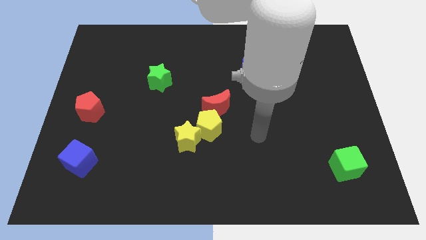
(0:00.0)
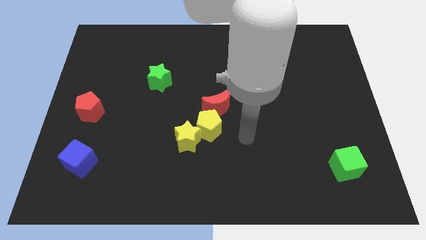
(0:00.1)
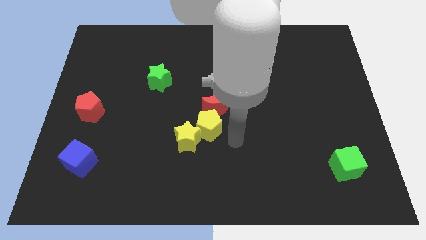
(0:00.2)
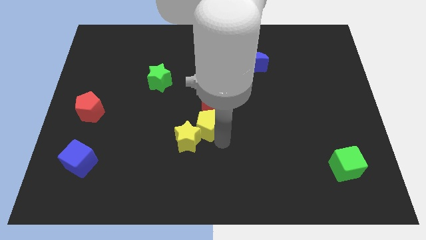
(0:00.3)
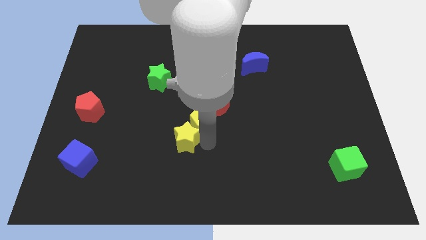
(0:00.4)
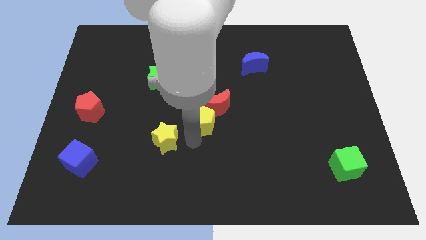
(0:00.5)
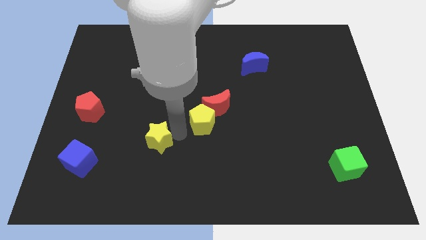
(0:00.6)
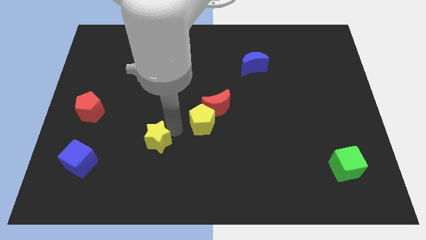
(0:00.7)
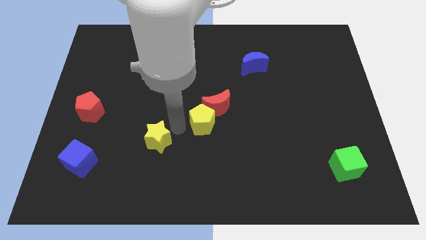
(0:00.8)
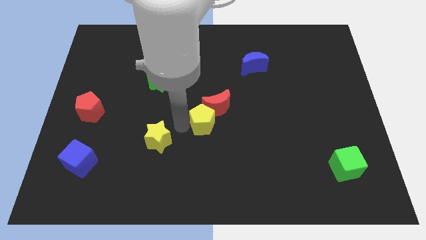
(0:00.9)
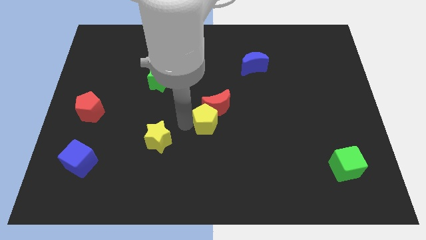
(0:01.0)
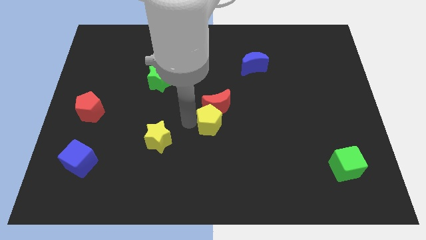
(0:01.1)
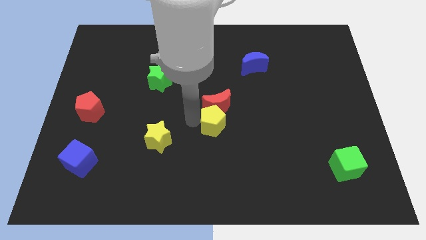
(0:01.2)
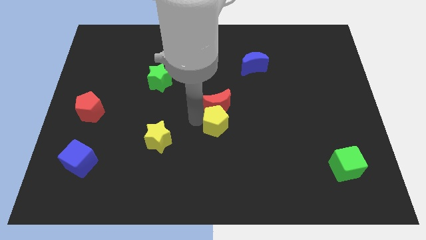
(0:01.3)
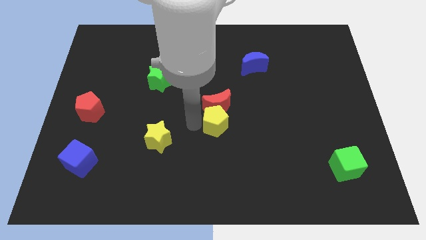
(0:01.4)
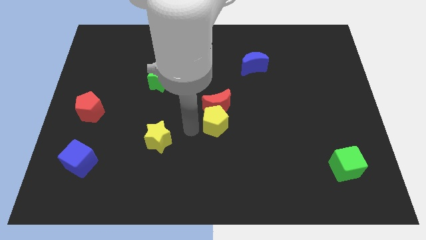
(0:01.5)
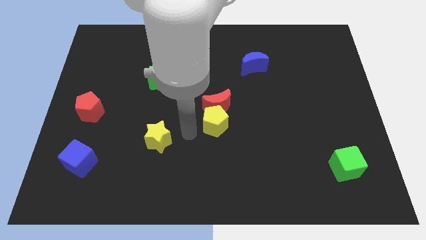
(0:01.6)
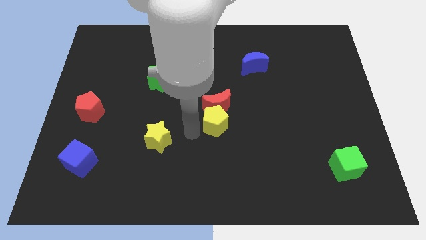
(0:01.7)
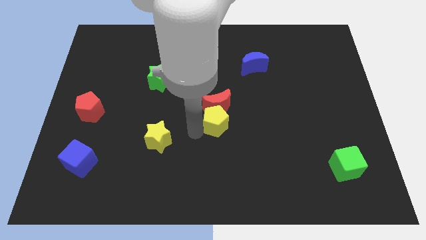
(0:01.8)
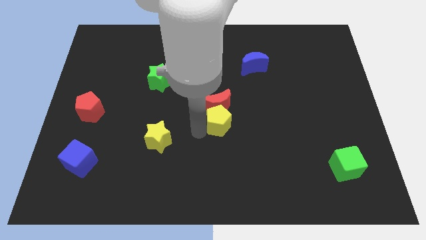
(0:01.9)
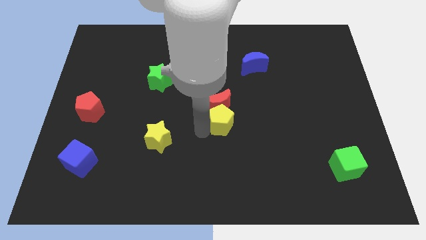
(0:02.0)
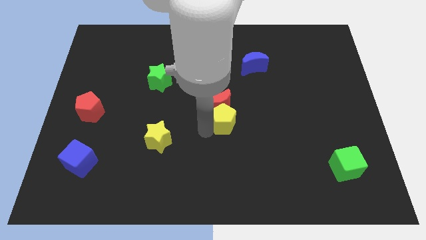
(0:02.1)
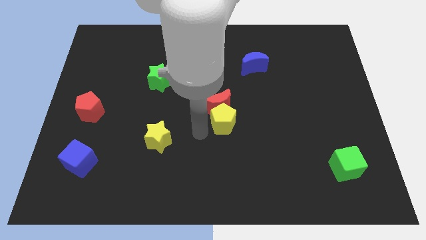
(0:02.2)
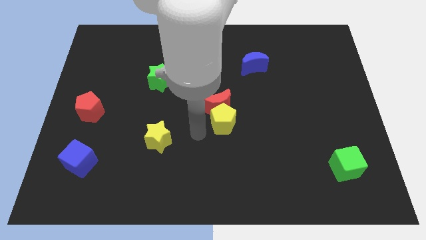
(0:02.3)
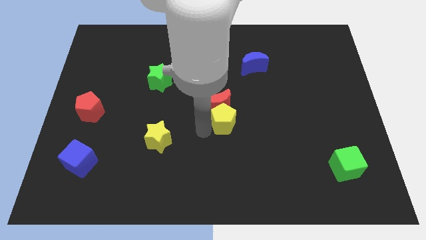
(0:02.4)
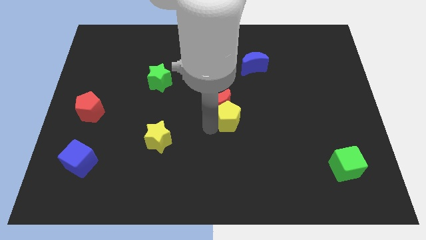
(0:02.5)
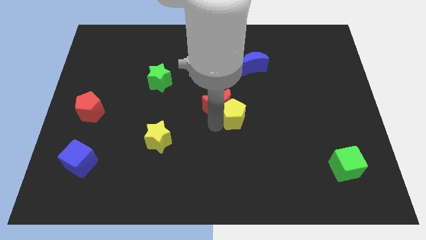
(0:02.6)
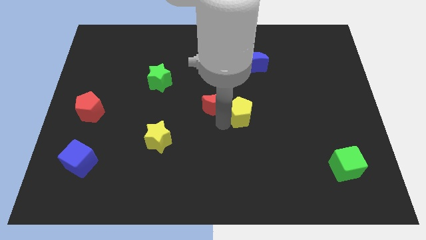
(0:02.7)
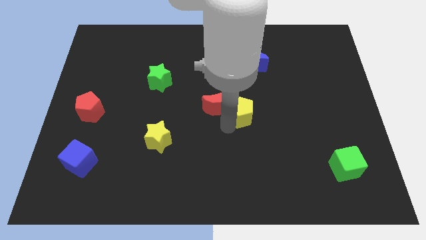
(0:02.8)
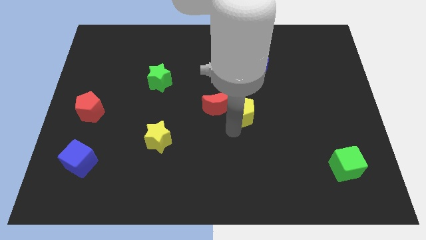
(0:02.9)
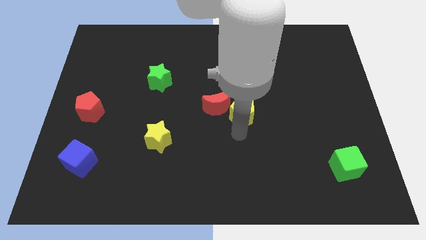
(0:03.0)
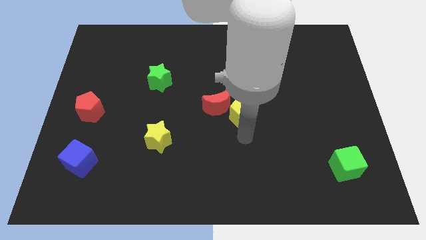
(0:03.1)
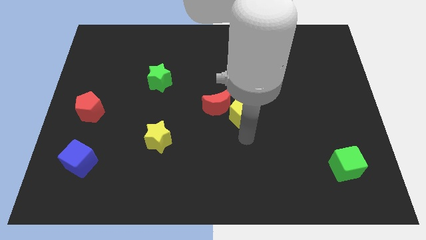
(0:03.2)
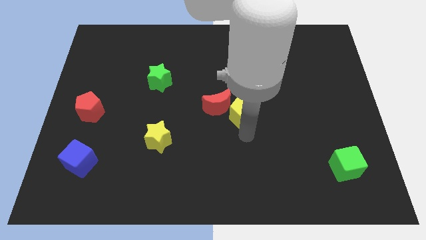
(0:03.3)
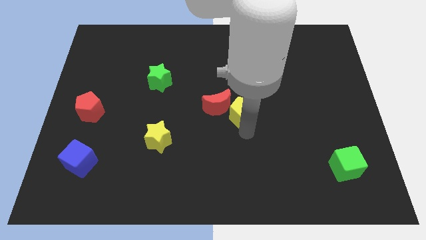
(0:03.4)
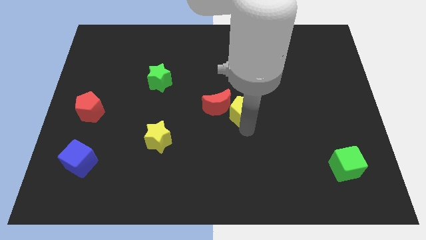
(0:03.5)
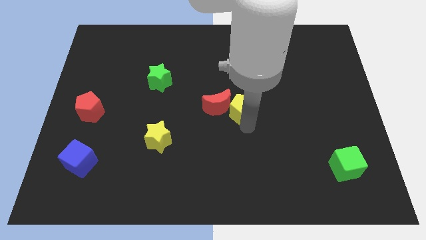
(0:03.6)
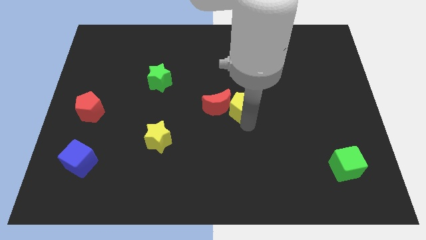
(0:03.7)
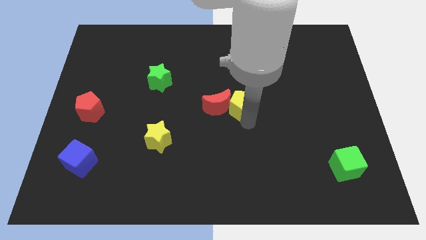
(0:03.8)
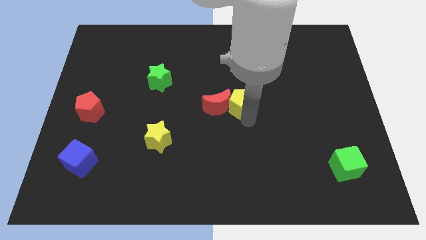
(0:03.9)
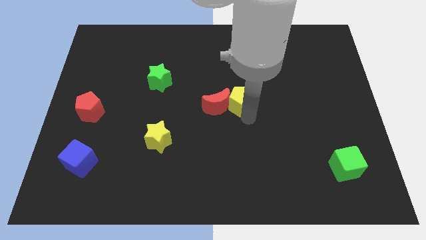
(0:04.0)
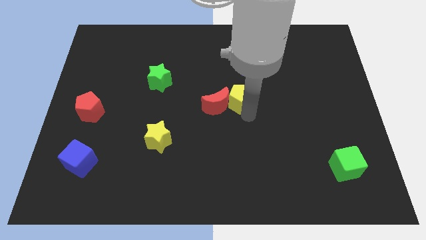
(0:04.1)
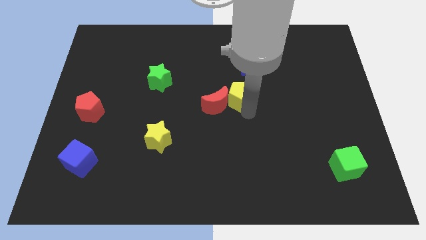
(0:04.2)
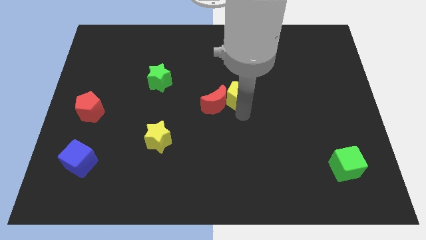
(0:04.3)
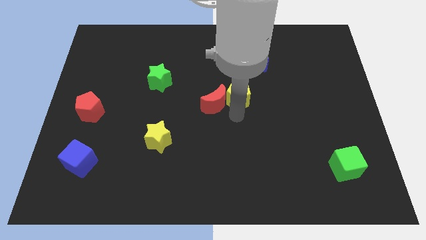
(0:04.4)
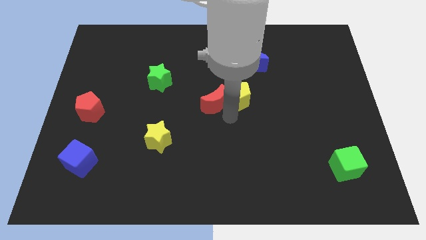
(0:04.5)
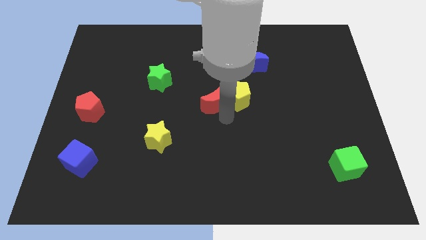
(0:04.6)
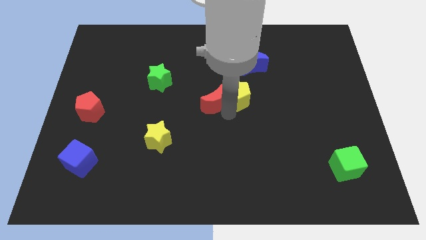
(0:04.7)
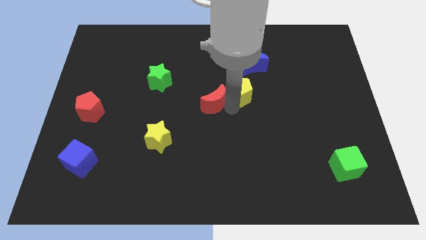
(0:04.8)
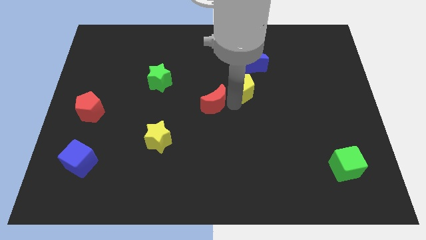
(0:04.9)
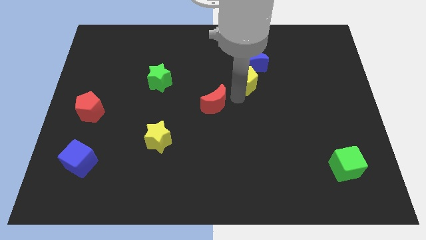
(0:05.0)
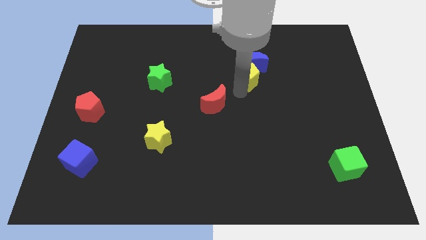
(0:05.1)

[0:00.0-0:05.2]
slide the yellow pentagon to the blue moon

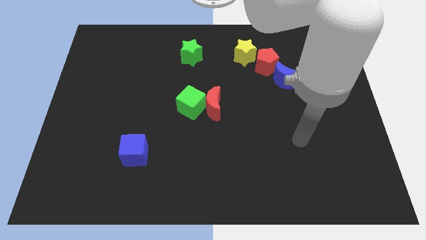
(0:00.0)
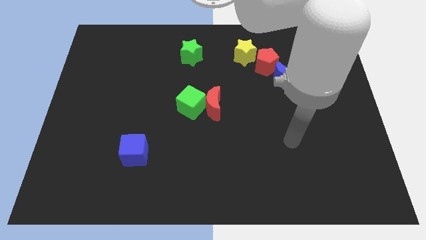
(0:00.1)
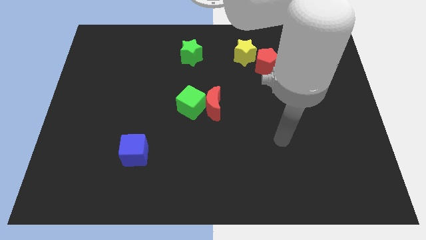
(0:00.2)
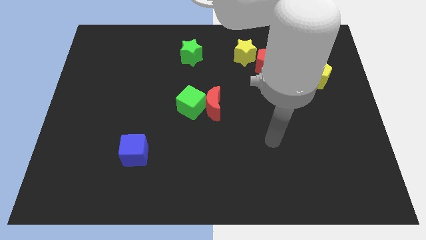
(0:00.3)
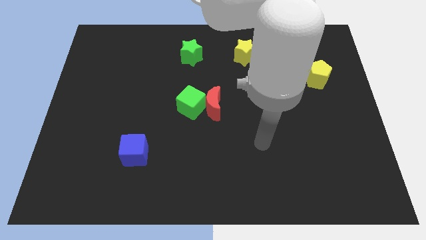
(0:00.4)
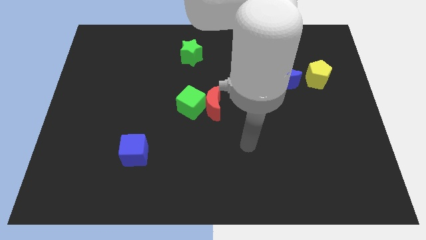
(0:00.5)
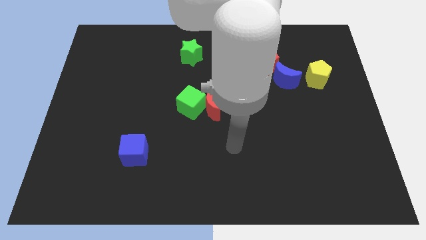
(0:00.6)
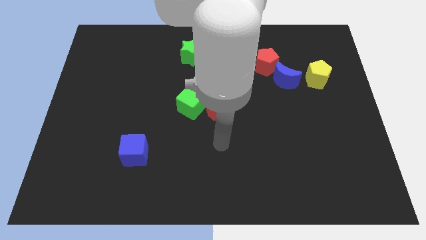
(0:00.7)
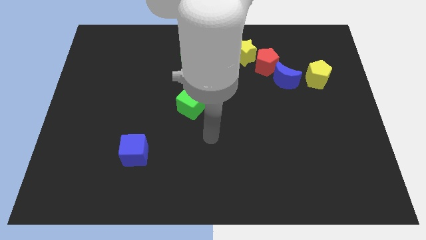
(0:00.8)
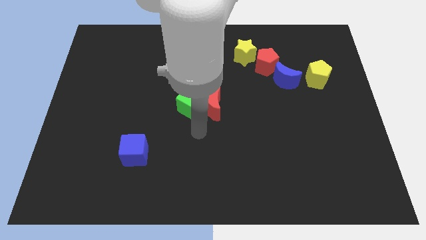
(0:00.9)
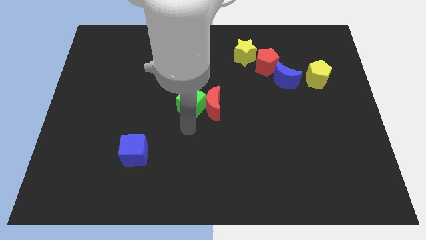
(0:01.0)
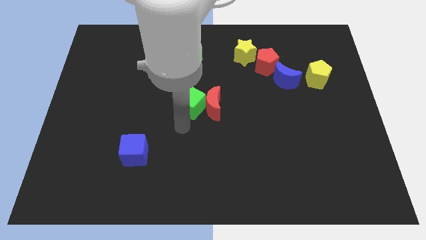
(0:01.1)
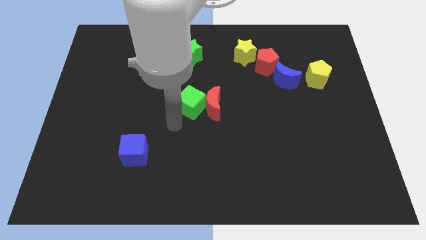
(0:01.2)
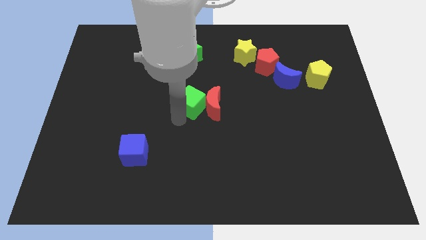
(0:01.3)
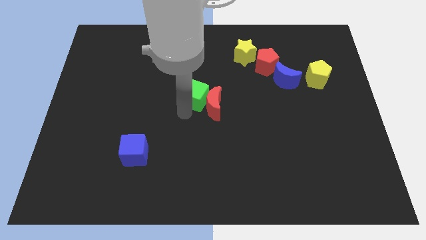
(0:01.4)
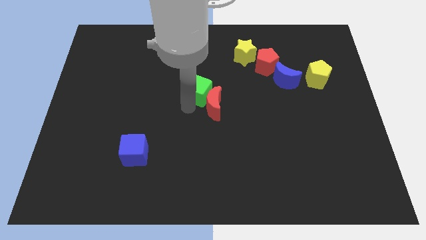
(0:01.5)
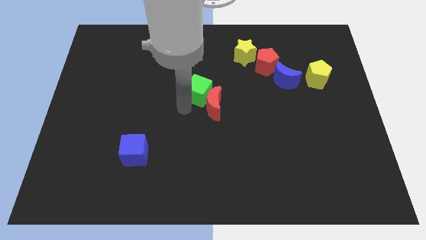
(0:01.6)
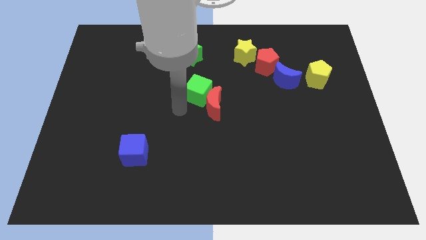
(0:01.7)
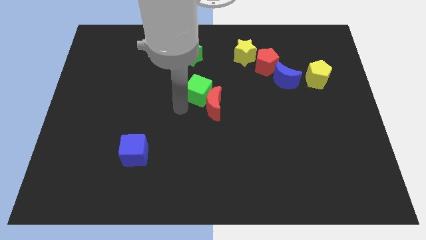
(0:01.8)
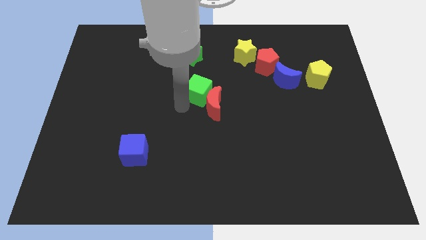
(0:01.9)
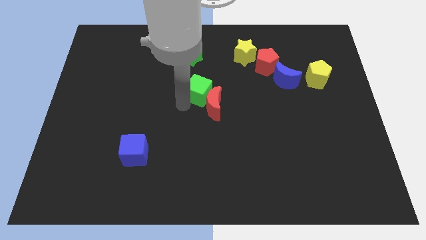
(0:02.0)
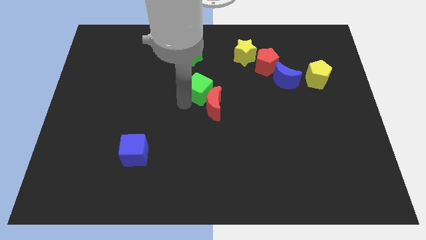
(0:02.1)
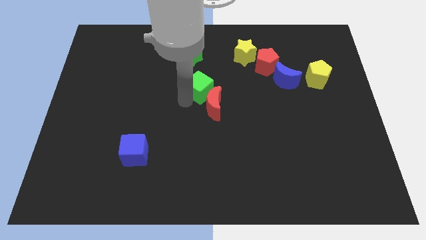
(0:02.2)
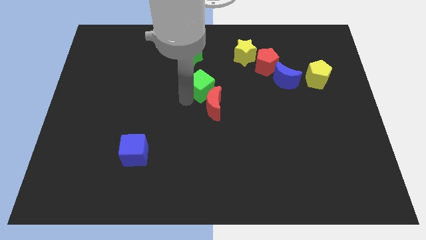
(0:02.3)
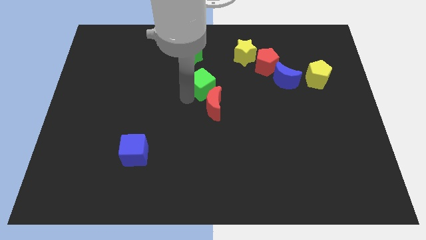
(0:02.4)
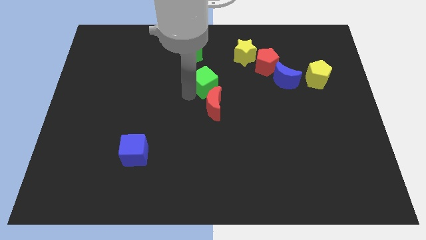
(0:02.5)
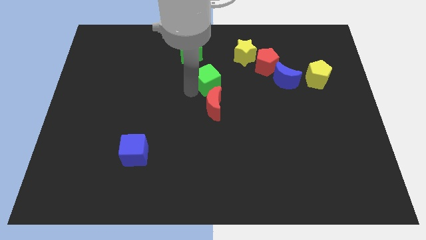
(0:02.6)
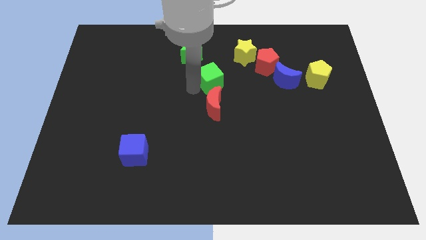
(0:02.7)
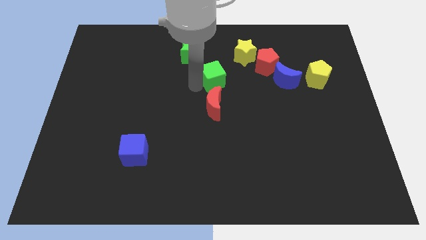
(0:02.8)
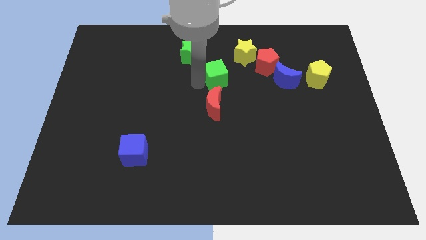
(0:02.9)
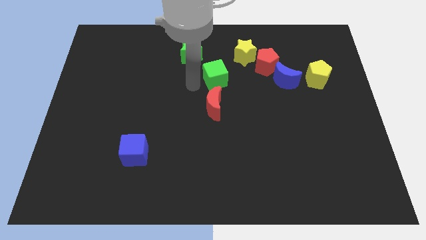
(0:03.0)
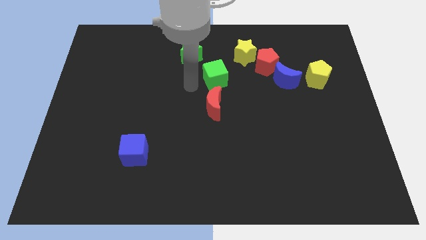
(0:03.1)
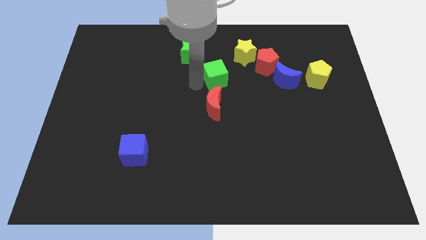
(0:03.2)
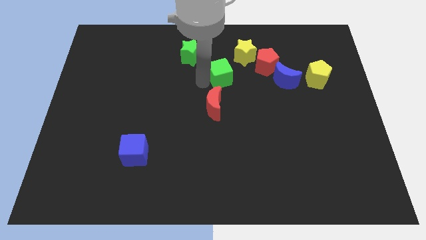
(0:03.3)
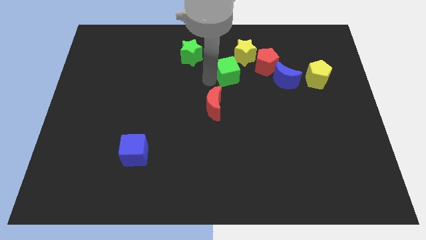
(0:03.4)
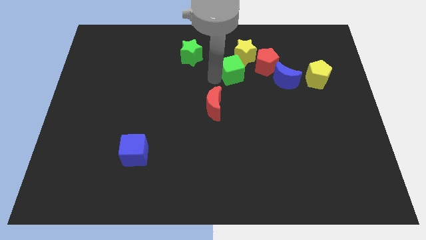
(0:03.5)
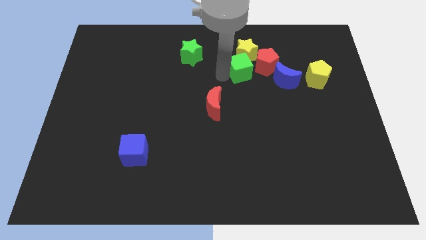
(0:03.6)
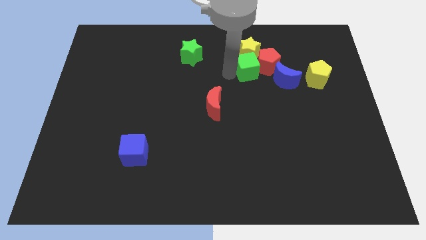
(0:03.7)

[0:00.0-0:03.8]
move the green cube close to the red pentagon
